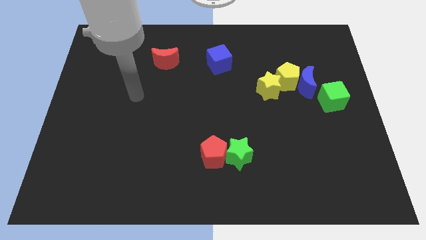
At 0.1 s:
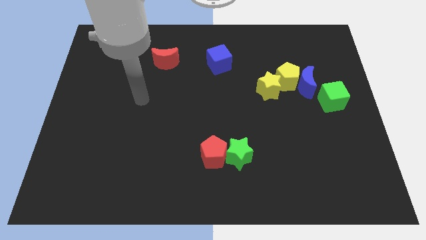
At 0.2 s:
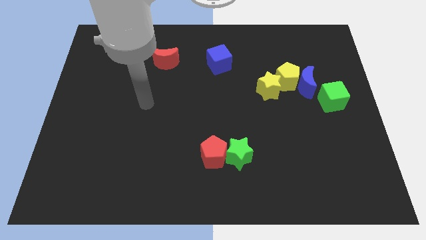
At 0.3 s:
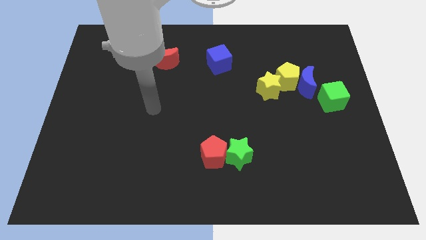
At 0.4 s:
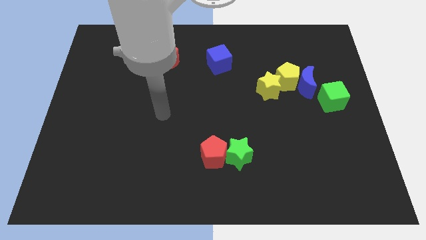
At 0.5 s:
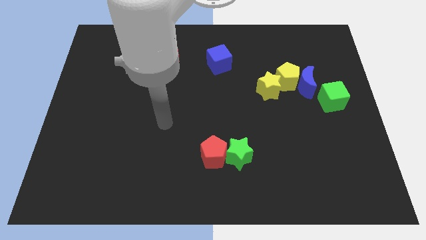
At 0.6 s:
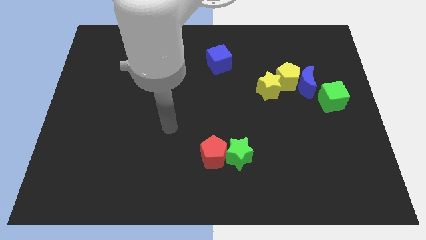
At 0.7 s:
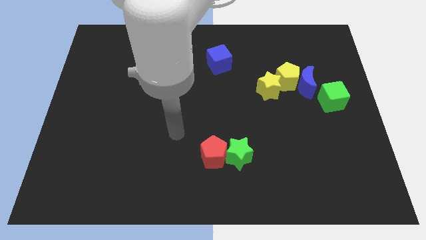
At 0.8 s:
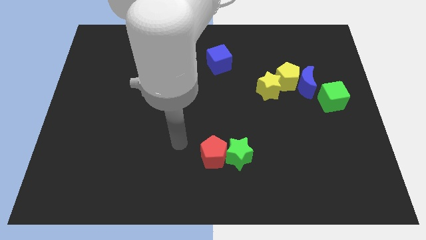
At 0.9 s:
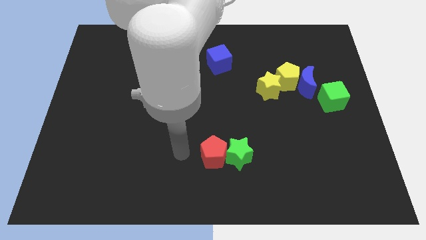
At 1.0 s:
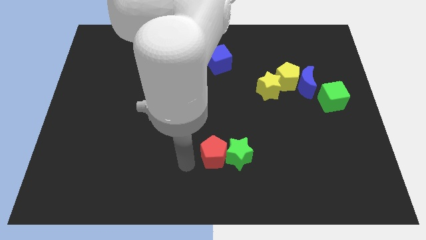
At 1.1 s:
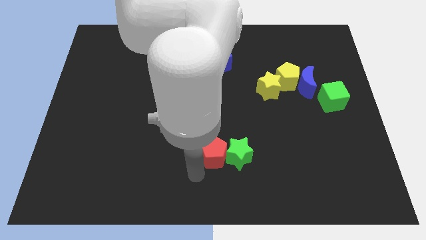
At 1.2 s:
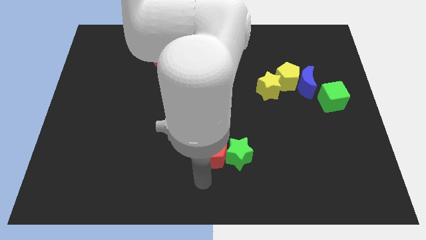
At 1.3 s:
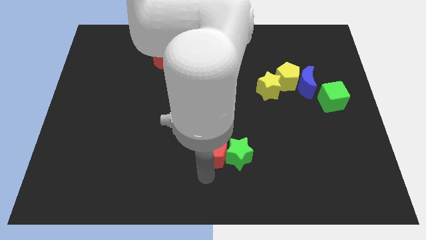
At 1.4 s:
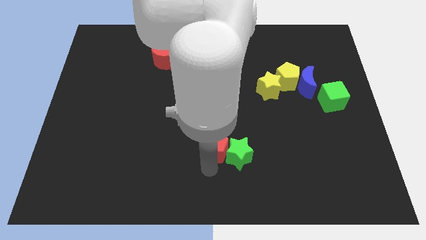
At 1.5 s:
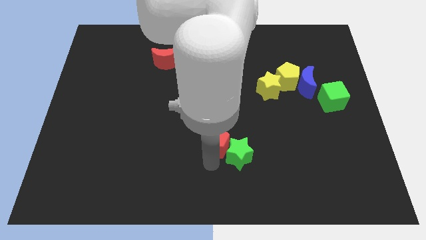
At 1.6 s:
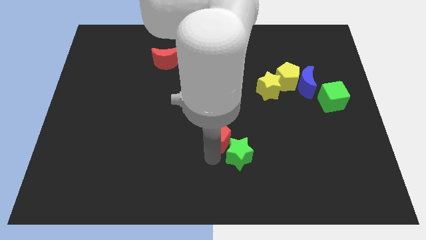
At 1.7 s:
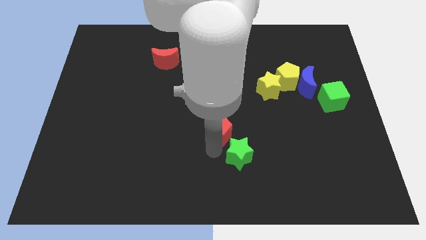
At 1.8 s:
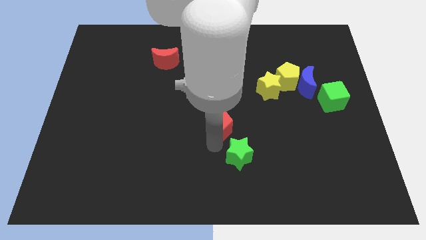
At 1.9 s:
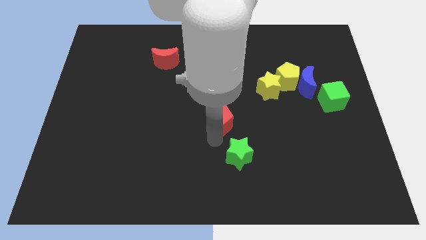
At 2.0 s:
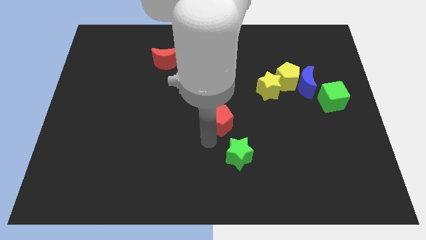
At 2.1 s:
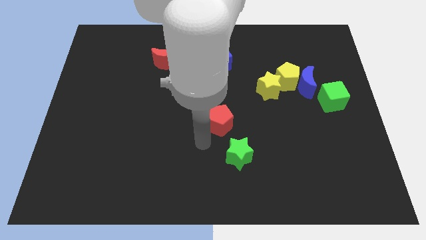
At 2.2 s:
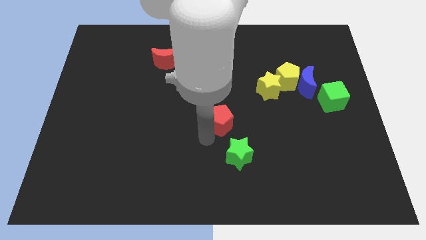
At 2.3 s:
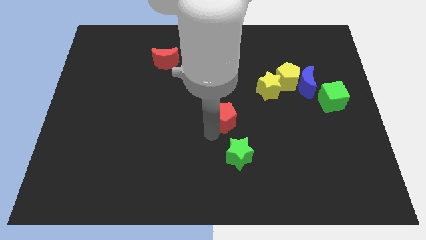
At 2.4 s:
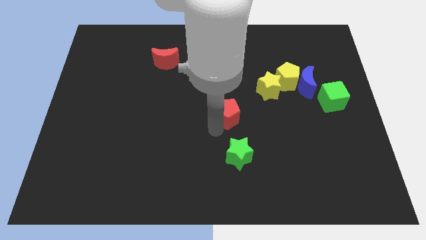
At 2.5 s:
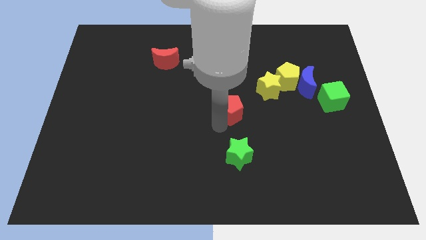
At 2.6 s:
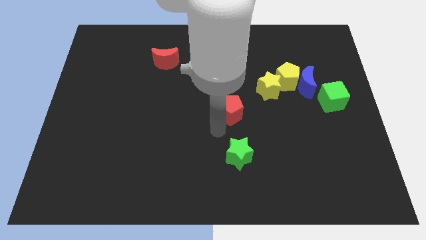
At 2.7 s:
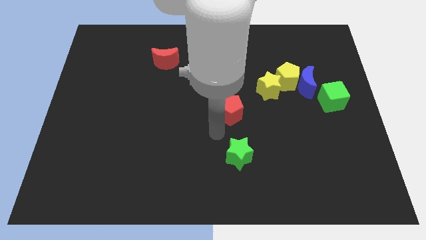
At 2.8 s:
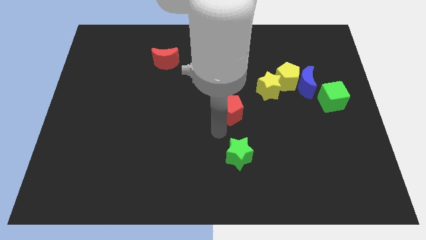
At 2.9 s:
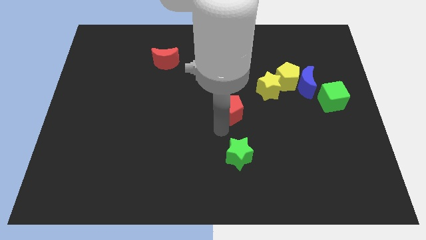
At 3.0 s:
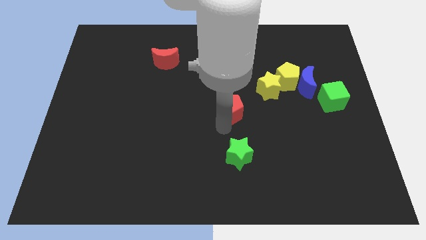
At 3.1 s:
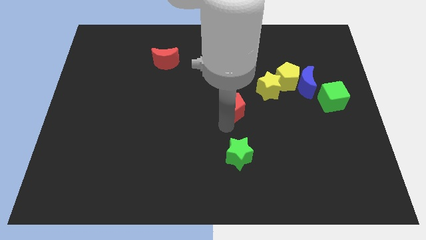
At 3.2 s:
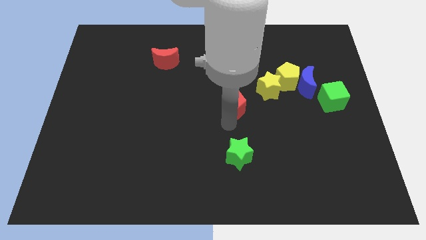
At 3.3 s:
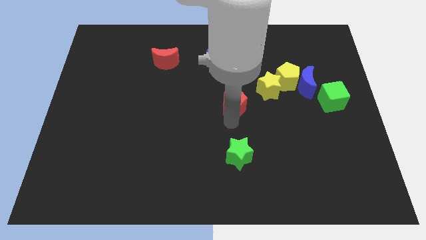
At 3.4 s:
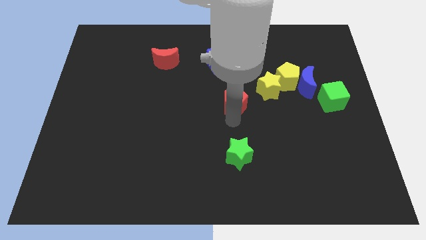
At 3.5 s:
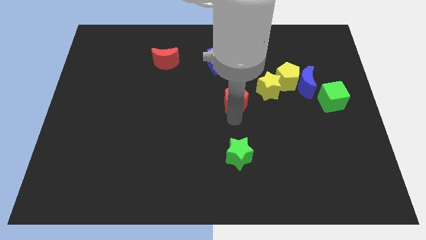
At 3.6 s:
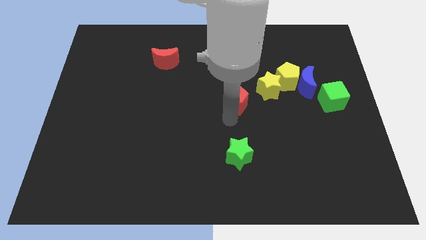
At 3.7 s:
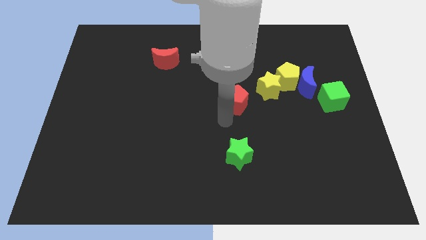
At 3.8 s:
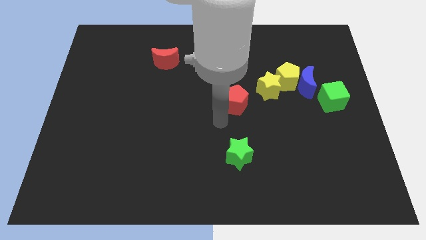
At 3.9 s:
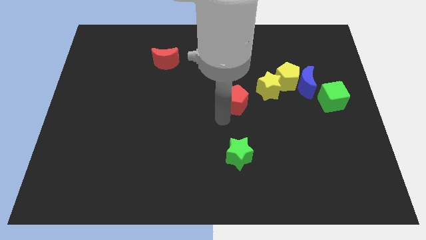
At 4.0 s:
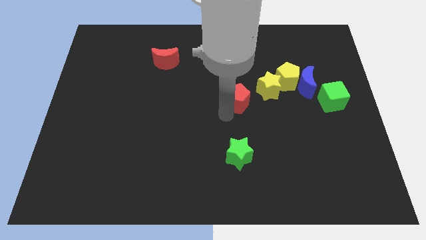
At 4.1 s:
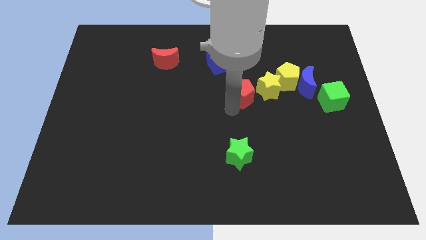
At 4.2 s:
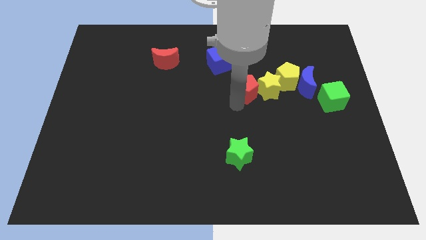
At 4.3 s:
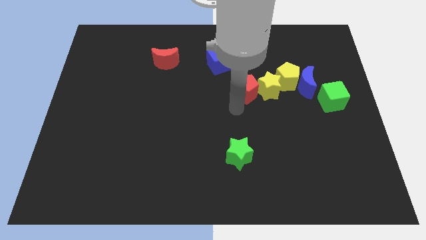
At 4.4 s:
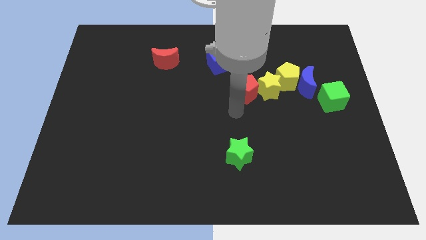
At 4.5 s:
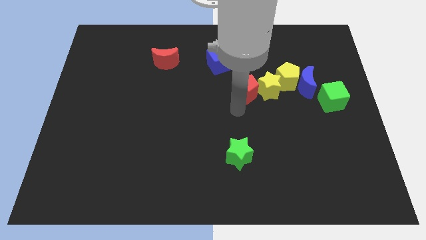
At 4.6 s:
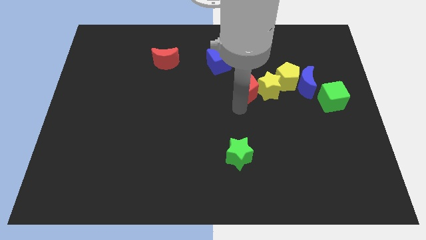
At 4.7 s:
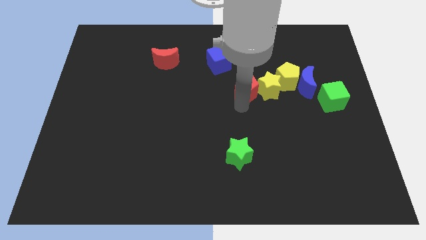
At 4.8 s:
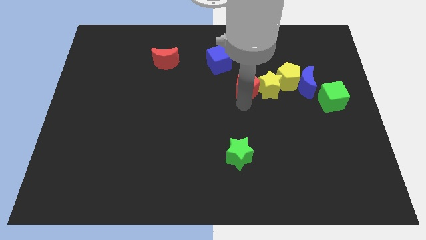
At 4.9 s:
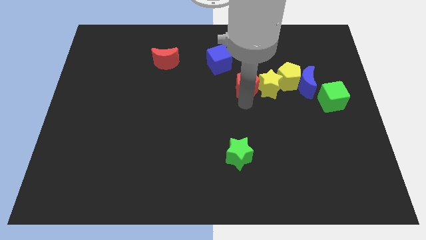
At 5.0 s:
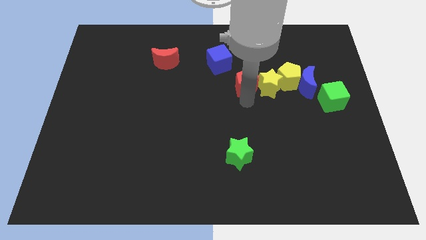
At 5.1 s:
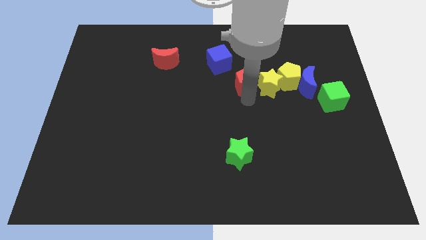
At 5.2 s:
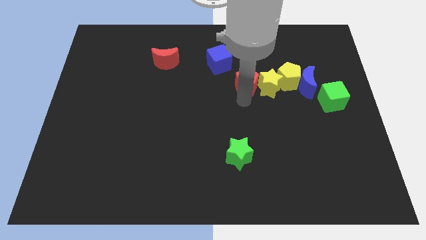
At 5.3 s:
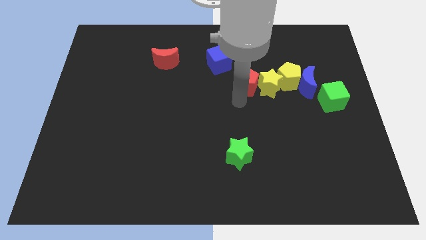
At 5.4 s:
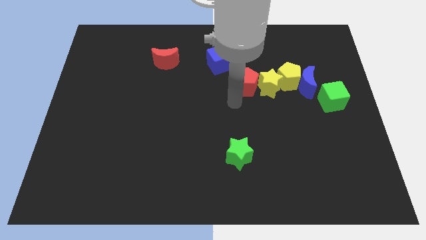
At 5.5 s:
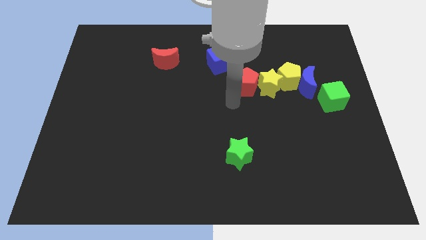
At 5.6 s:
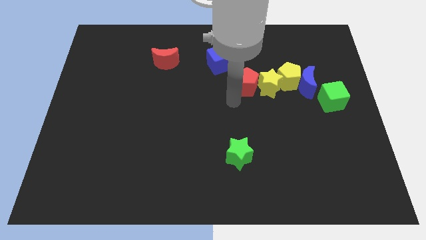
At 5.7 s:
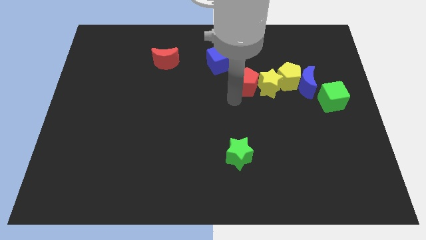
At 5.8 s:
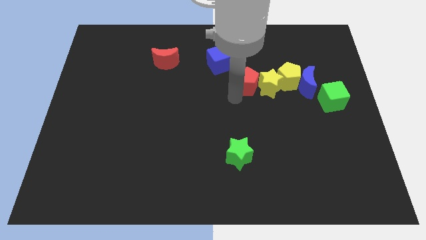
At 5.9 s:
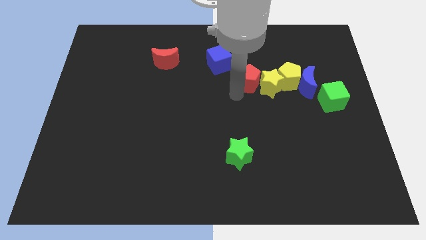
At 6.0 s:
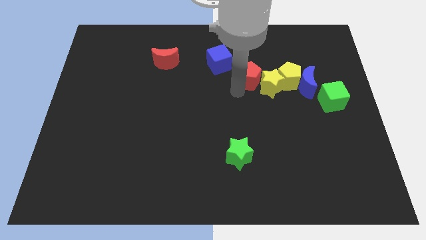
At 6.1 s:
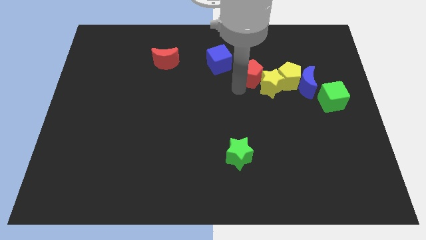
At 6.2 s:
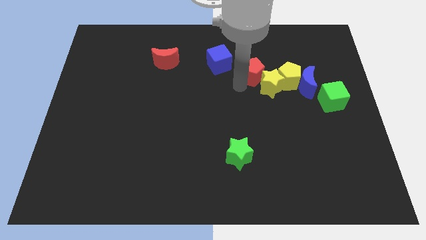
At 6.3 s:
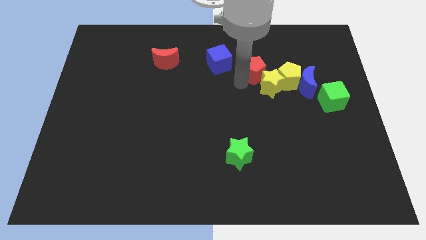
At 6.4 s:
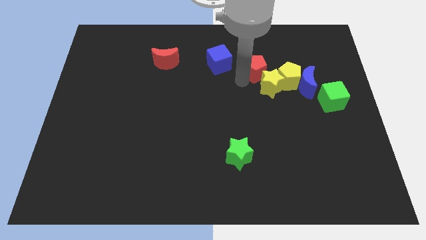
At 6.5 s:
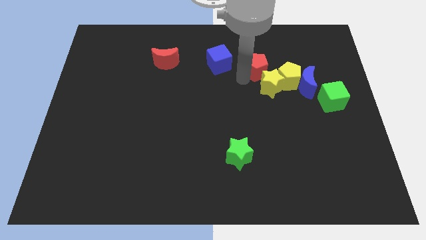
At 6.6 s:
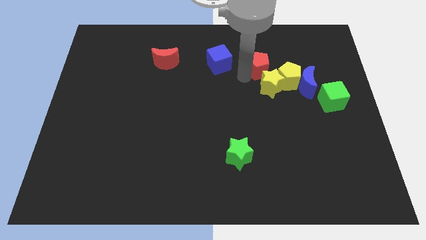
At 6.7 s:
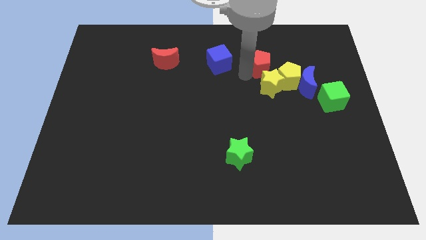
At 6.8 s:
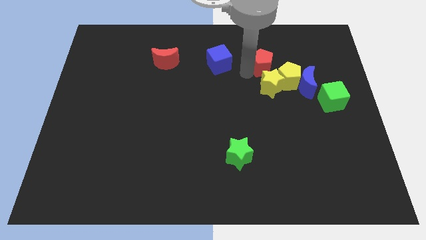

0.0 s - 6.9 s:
move the red pentagon diagonally up and to the left of the blue moon

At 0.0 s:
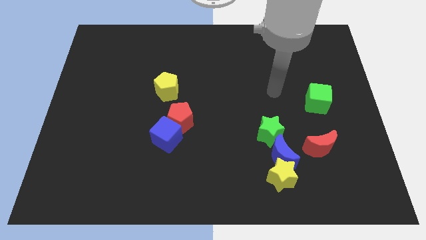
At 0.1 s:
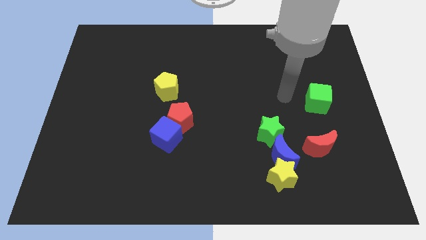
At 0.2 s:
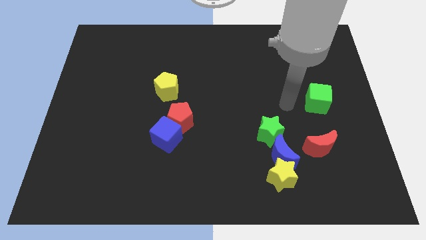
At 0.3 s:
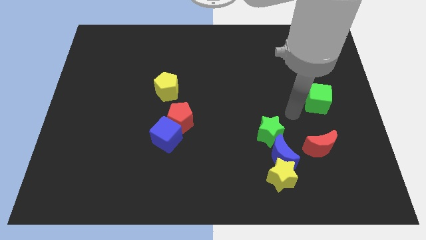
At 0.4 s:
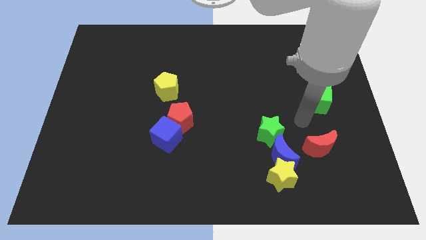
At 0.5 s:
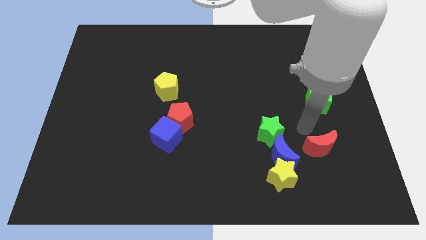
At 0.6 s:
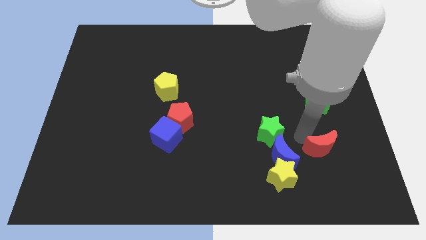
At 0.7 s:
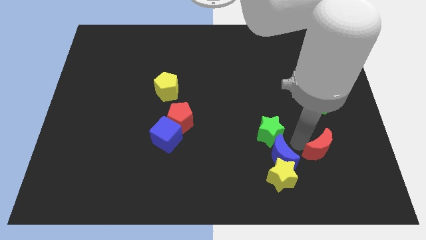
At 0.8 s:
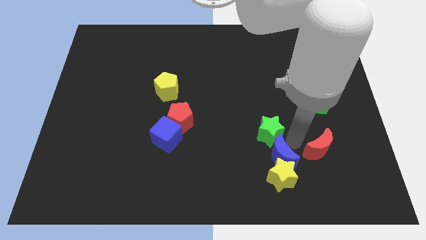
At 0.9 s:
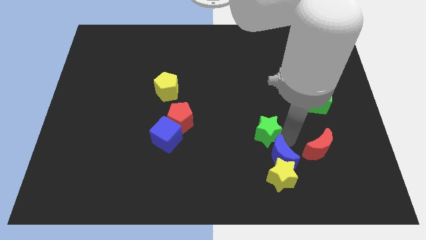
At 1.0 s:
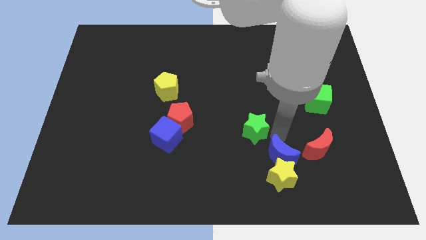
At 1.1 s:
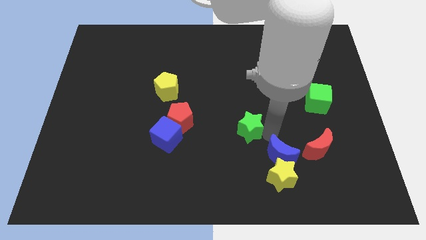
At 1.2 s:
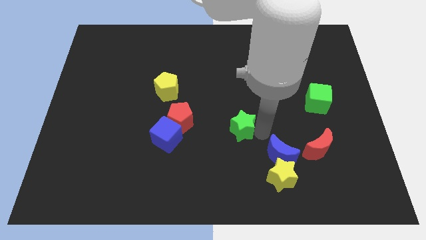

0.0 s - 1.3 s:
move the green star to the right side of the red pentagon
